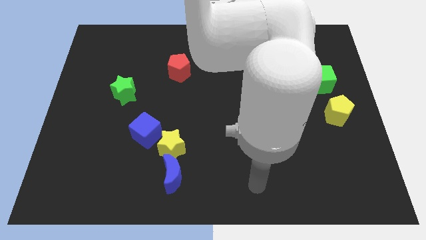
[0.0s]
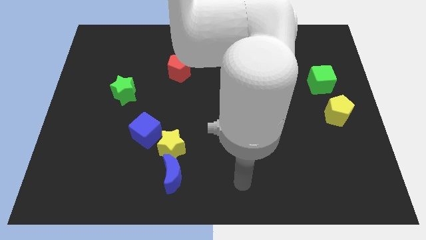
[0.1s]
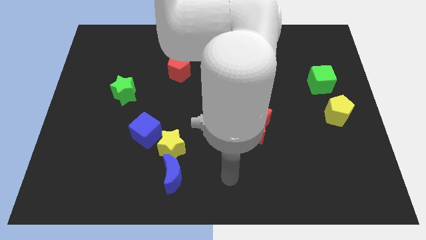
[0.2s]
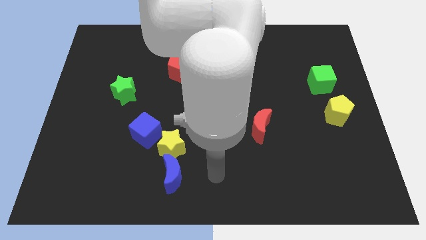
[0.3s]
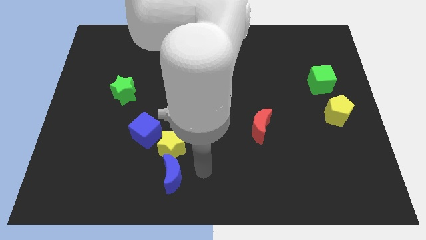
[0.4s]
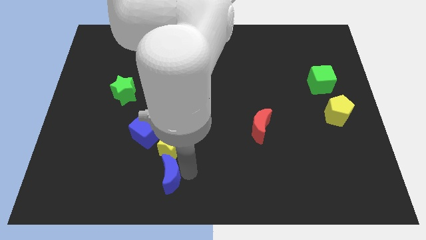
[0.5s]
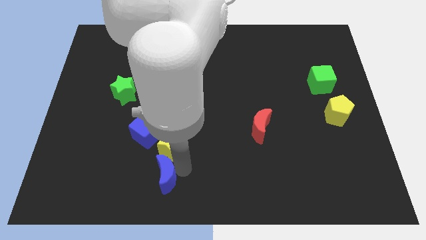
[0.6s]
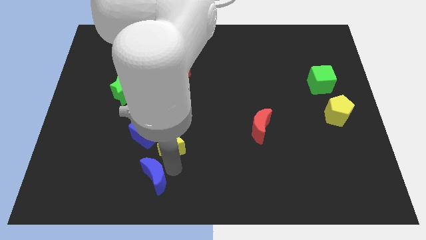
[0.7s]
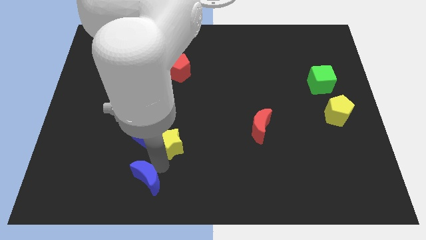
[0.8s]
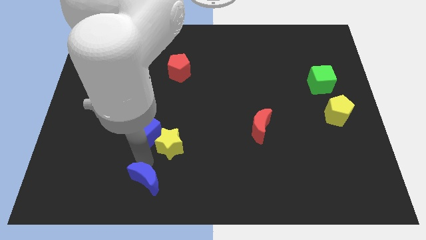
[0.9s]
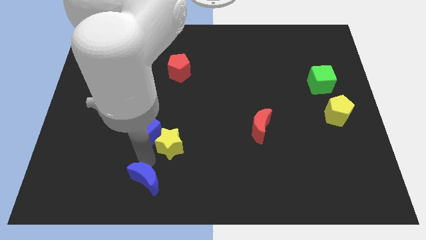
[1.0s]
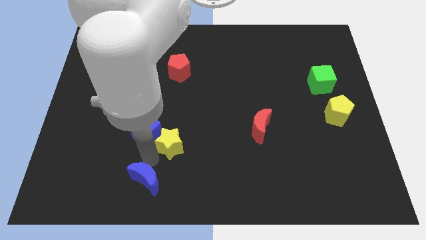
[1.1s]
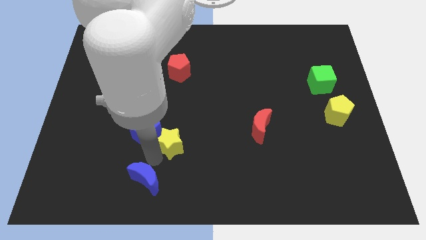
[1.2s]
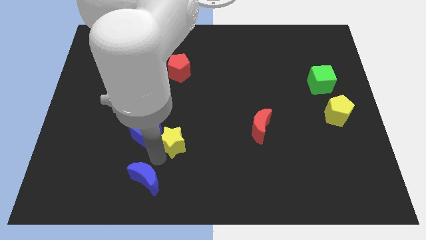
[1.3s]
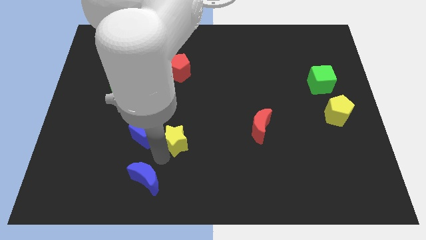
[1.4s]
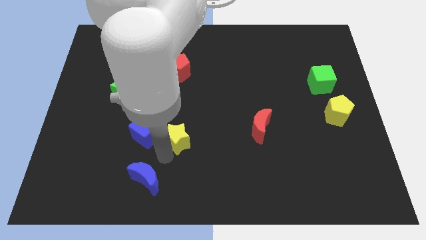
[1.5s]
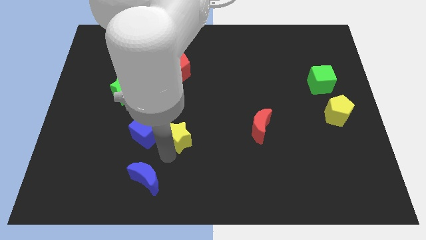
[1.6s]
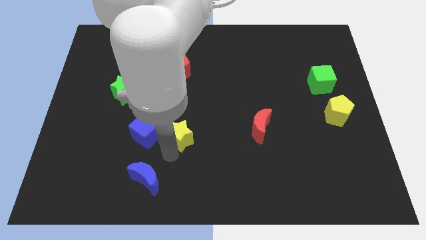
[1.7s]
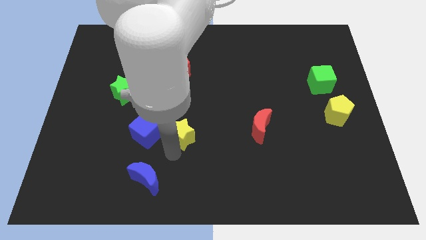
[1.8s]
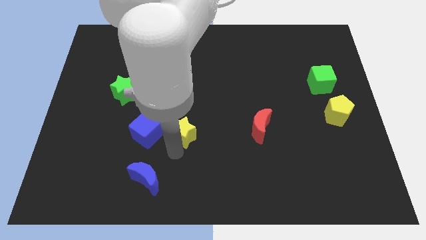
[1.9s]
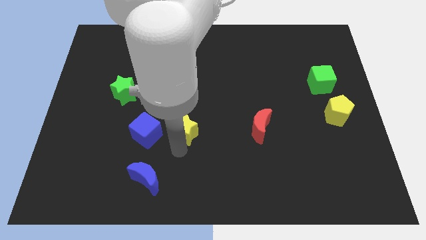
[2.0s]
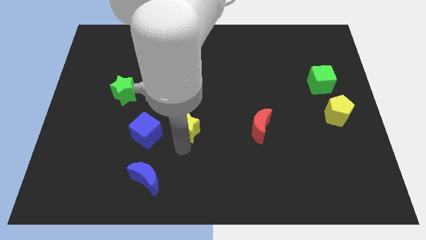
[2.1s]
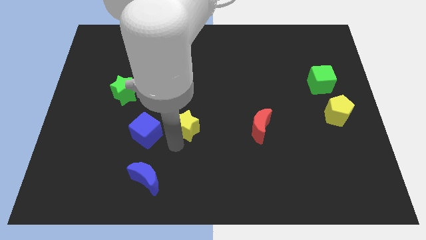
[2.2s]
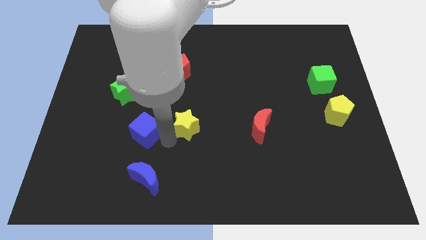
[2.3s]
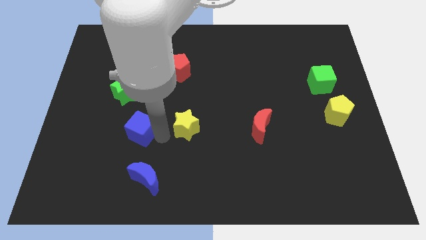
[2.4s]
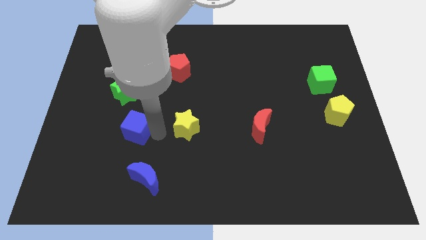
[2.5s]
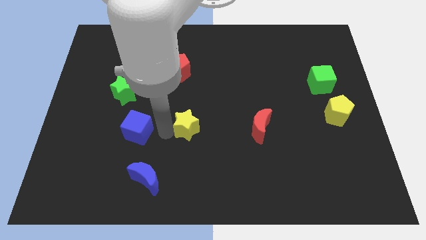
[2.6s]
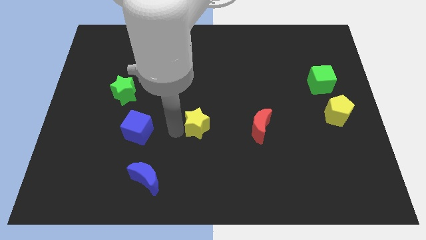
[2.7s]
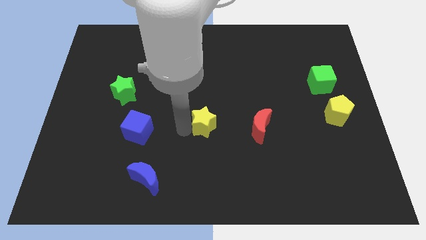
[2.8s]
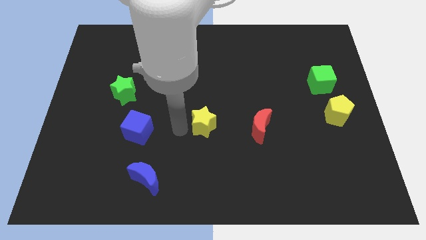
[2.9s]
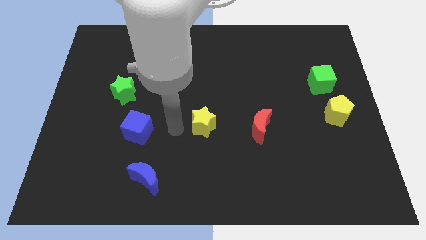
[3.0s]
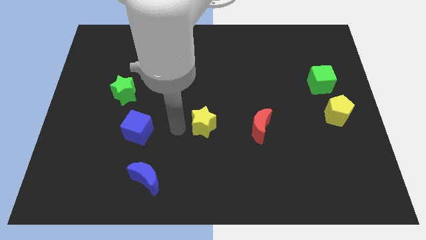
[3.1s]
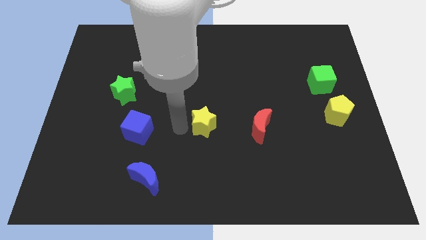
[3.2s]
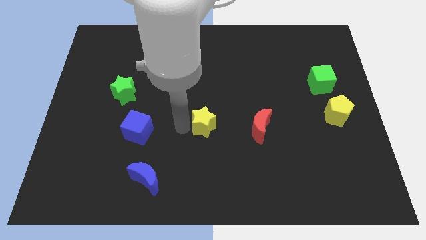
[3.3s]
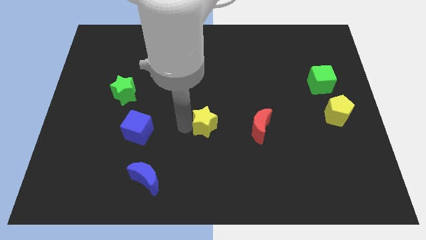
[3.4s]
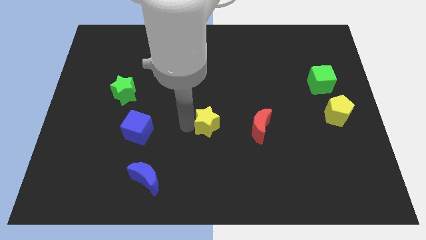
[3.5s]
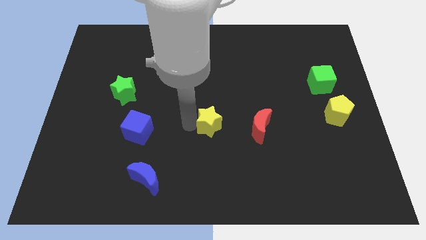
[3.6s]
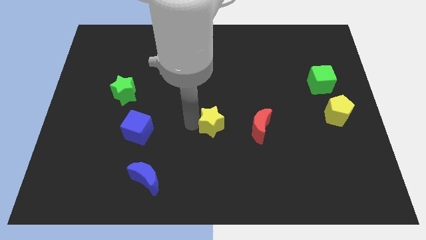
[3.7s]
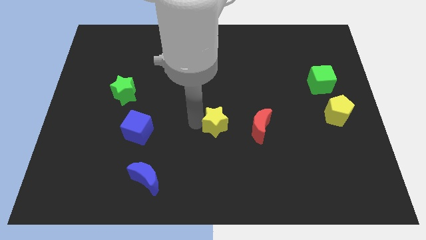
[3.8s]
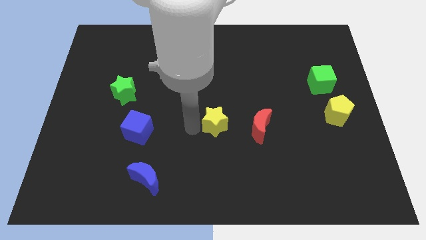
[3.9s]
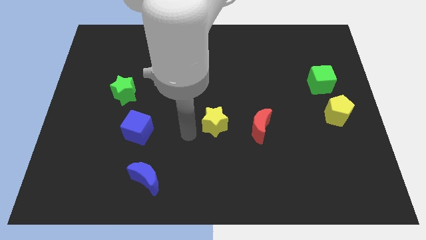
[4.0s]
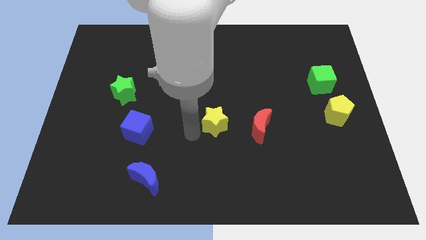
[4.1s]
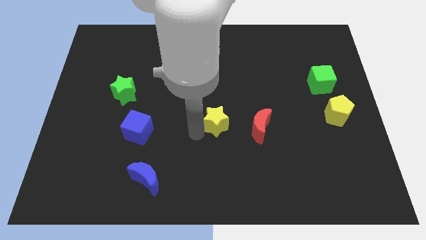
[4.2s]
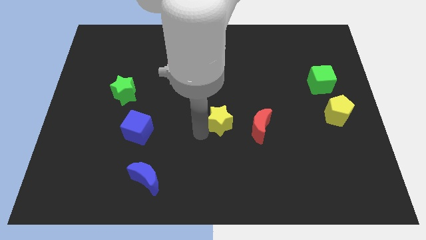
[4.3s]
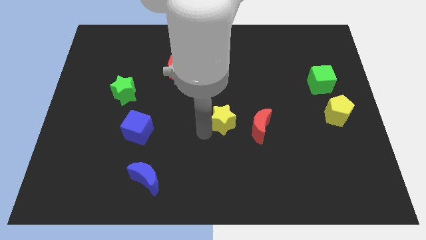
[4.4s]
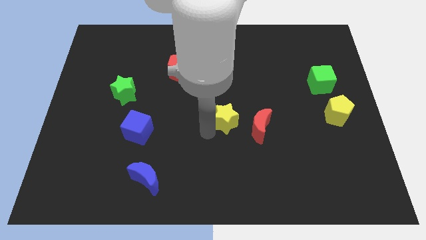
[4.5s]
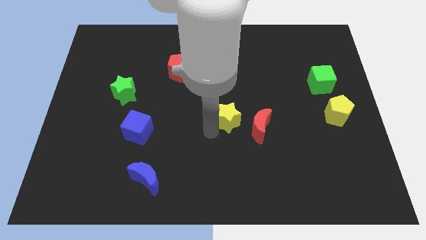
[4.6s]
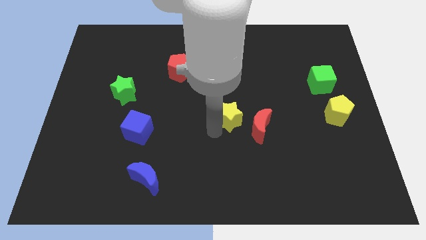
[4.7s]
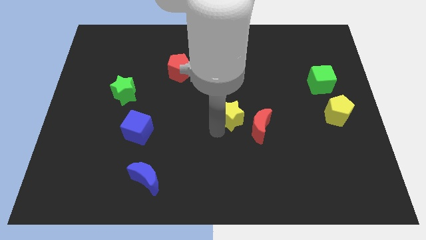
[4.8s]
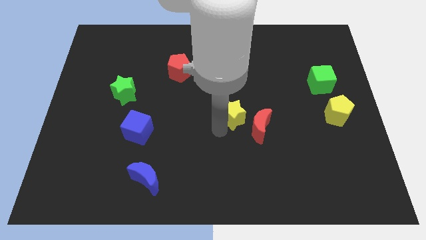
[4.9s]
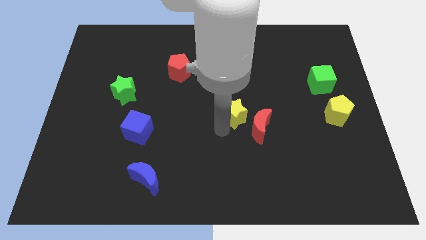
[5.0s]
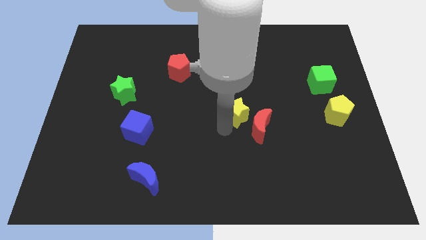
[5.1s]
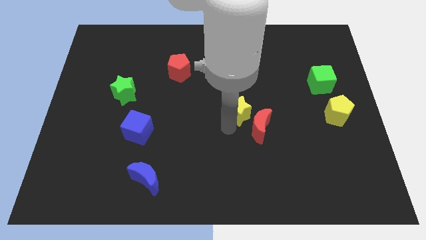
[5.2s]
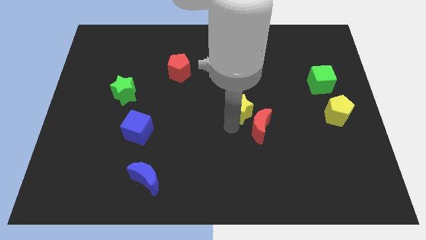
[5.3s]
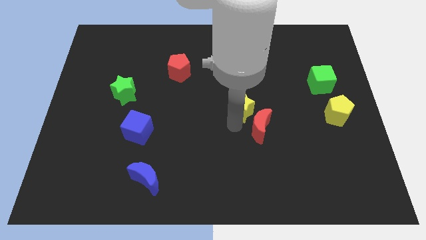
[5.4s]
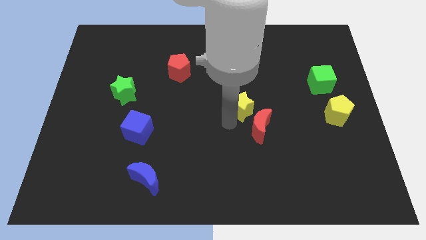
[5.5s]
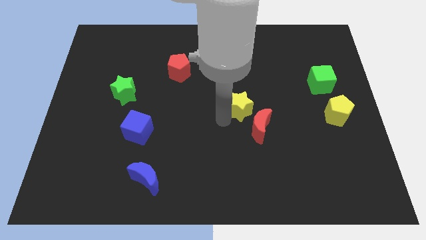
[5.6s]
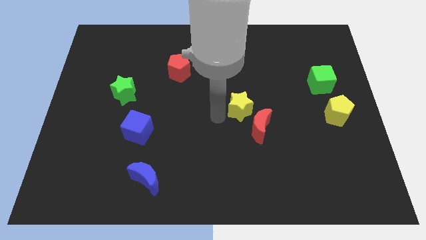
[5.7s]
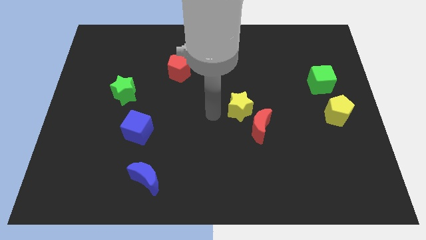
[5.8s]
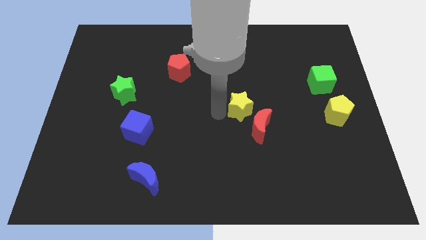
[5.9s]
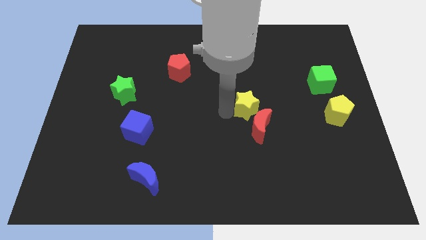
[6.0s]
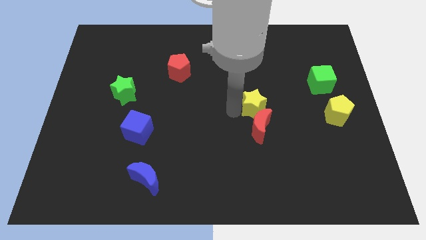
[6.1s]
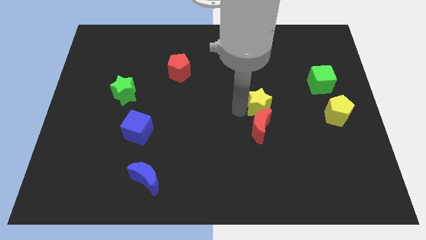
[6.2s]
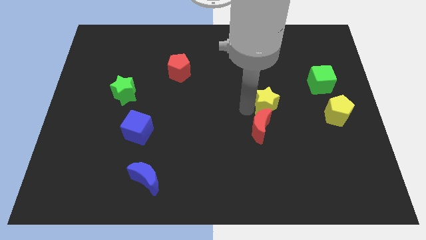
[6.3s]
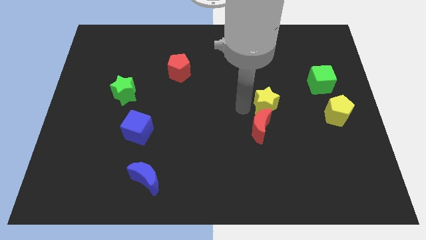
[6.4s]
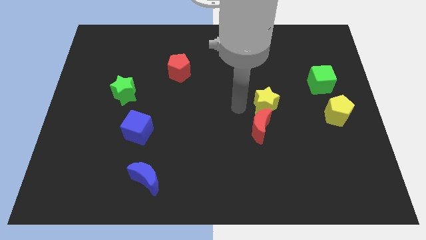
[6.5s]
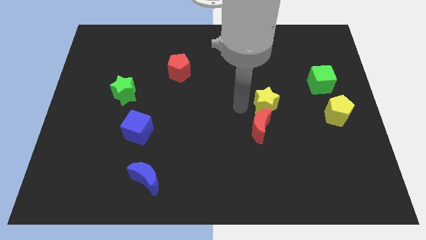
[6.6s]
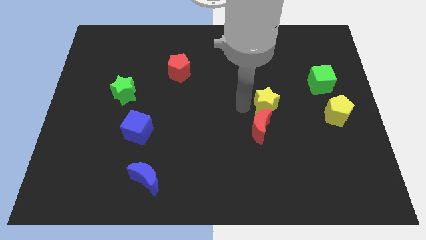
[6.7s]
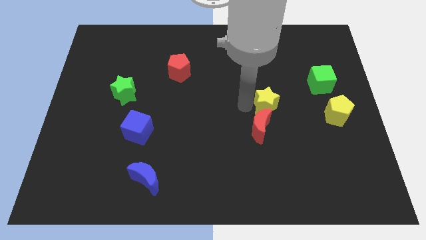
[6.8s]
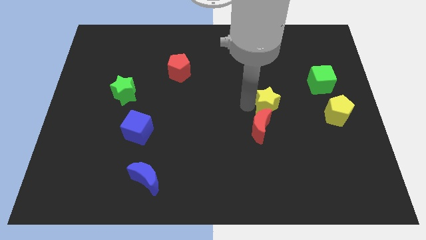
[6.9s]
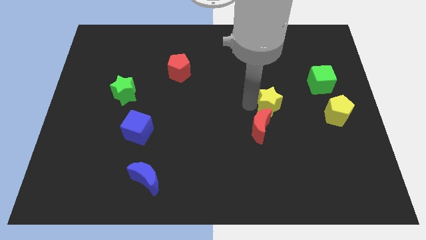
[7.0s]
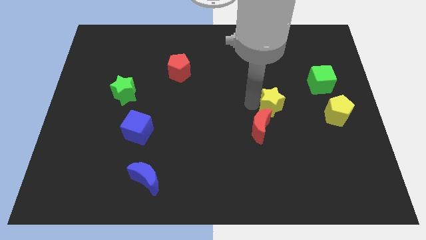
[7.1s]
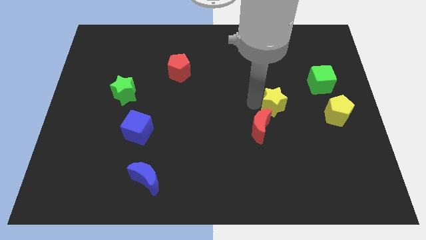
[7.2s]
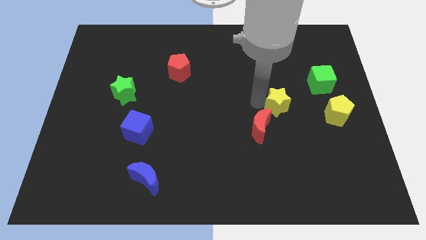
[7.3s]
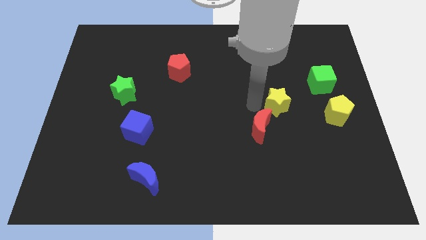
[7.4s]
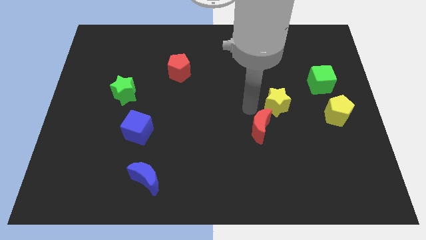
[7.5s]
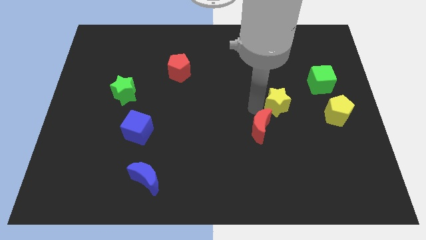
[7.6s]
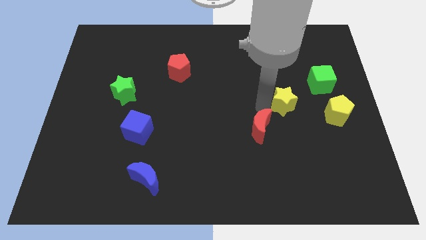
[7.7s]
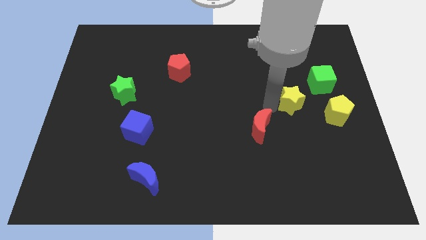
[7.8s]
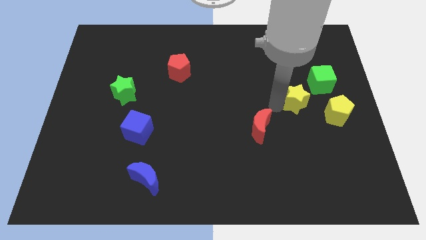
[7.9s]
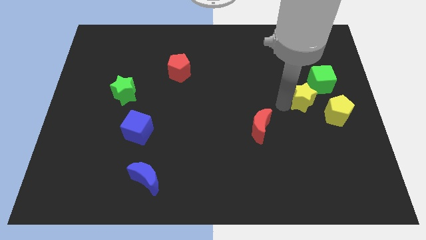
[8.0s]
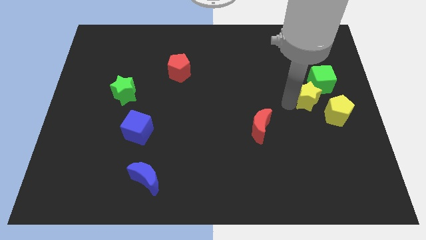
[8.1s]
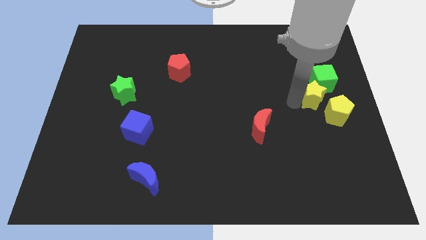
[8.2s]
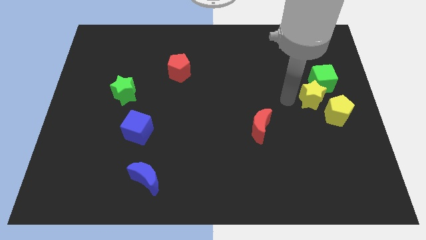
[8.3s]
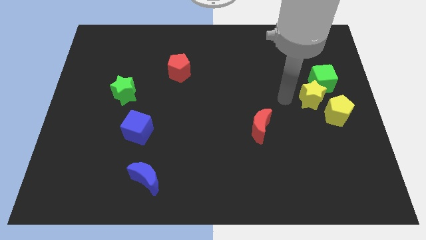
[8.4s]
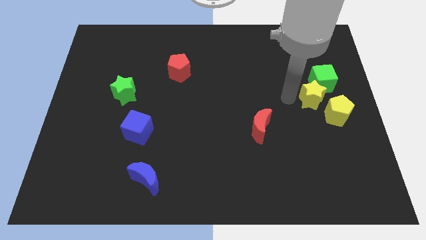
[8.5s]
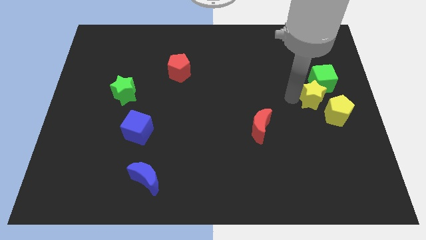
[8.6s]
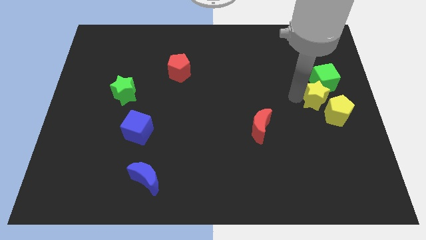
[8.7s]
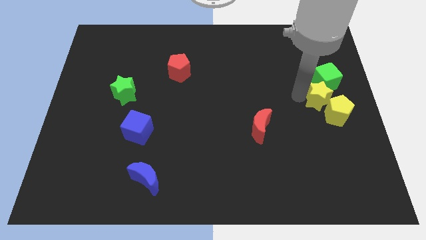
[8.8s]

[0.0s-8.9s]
put the yellow star to the right side
